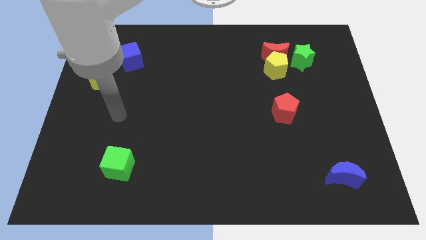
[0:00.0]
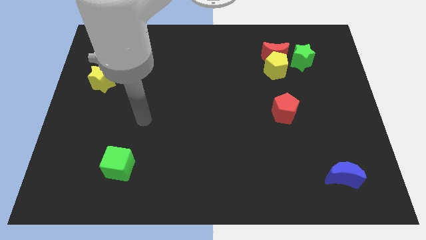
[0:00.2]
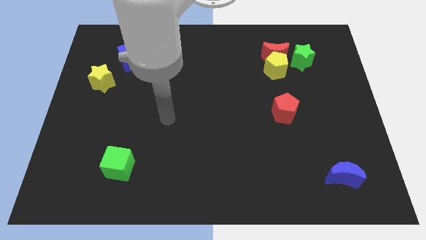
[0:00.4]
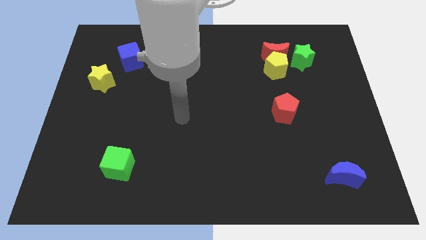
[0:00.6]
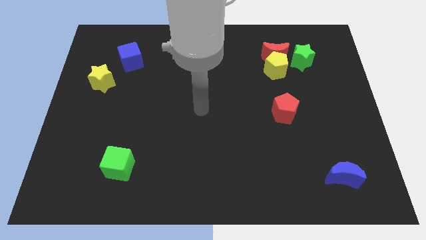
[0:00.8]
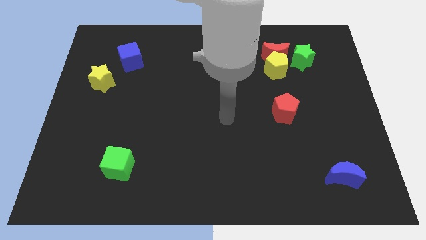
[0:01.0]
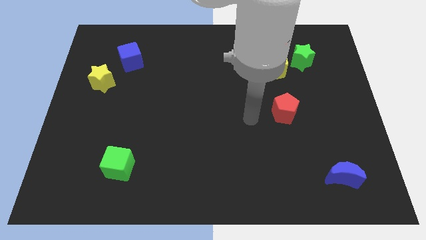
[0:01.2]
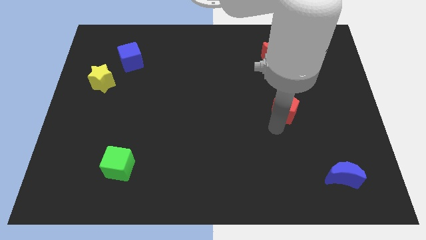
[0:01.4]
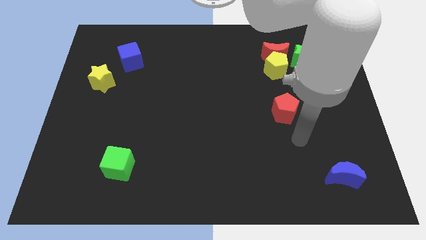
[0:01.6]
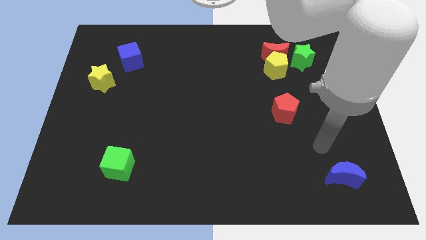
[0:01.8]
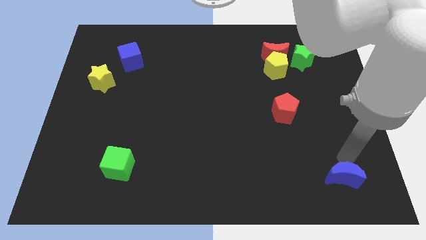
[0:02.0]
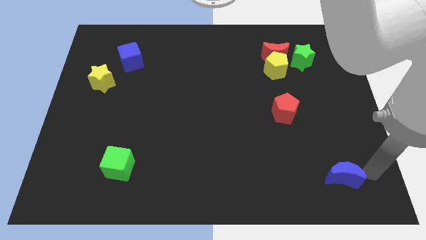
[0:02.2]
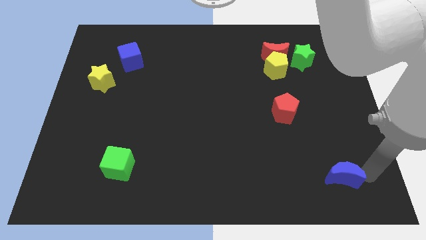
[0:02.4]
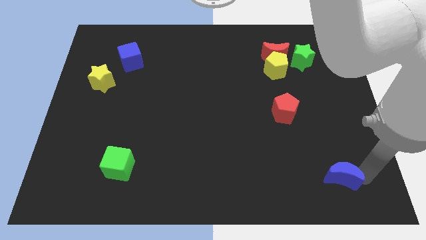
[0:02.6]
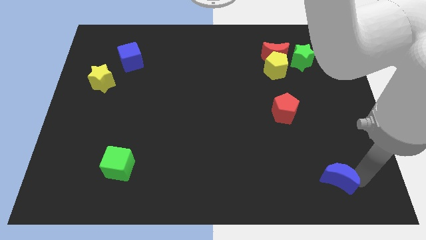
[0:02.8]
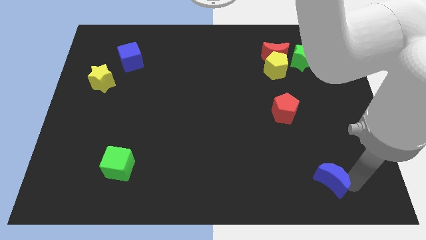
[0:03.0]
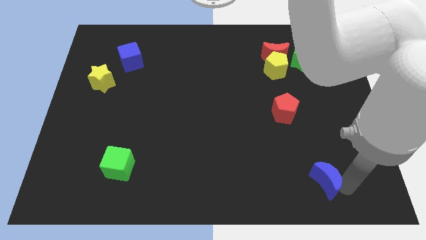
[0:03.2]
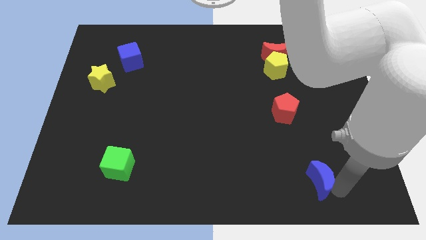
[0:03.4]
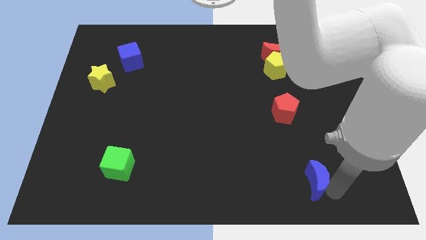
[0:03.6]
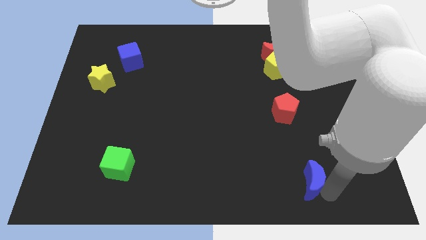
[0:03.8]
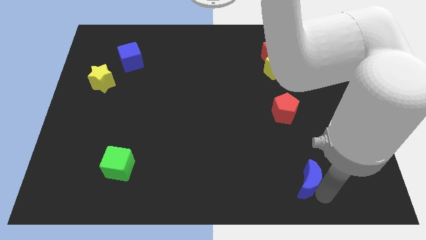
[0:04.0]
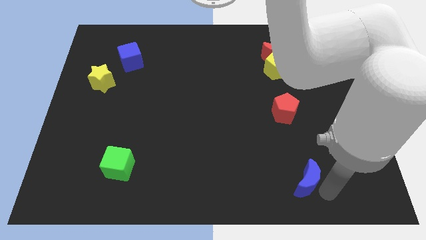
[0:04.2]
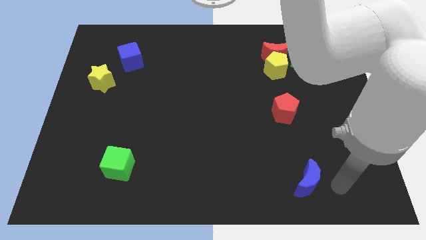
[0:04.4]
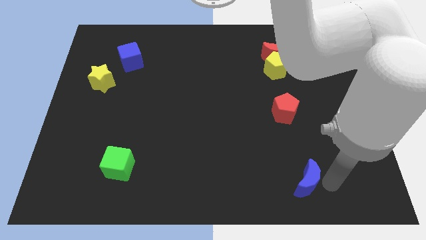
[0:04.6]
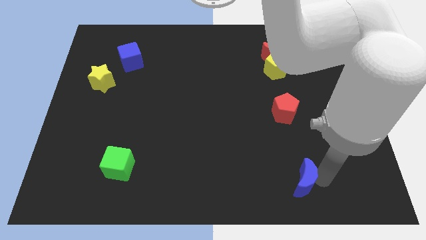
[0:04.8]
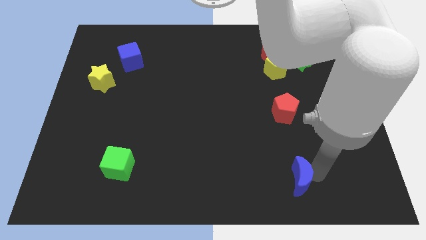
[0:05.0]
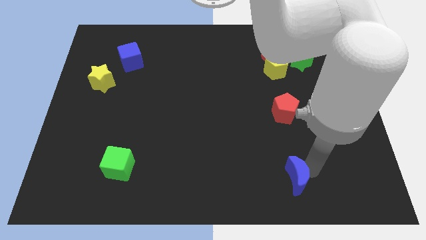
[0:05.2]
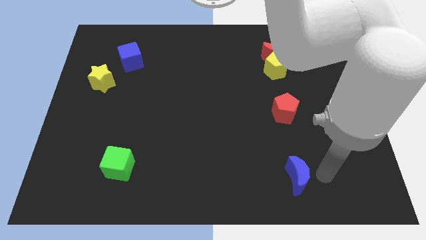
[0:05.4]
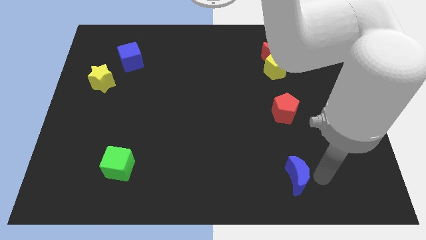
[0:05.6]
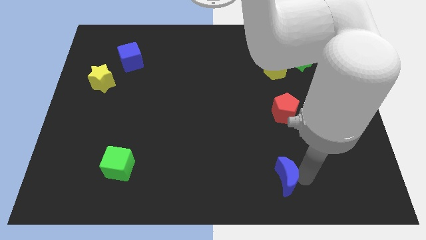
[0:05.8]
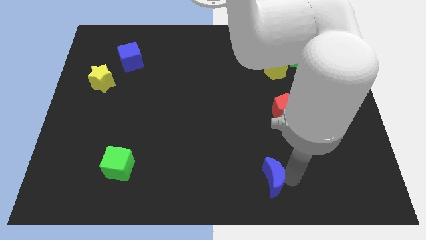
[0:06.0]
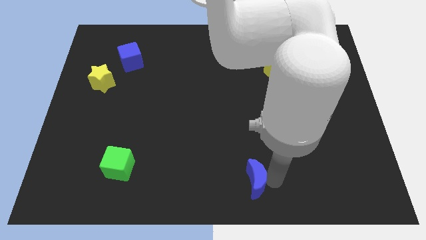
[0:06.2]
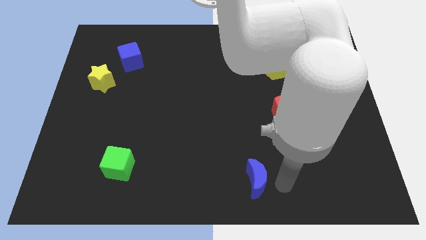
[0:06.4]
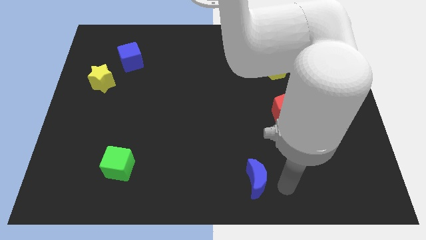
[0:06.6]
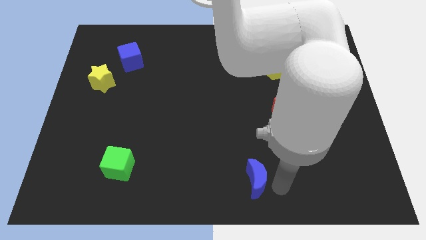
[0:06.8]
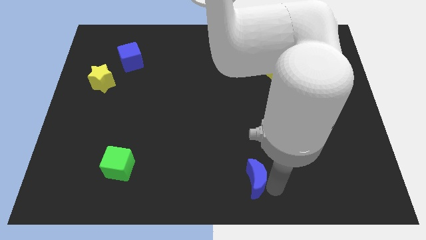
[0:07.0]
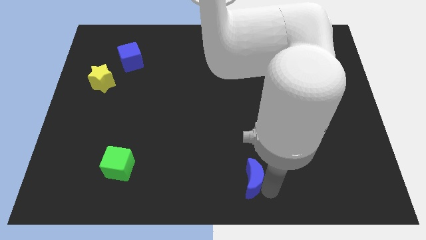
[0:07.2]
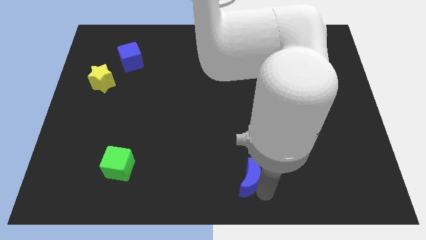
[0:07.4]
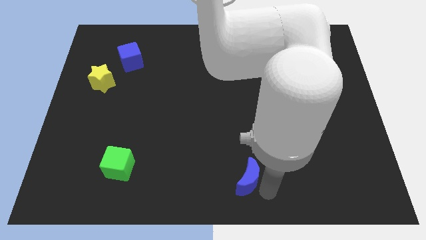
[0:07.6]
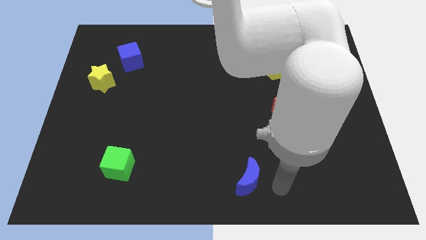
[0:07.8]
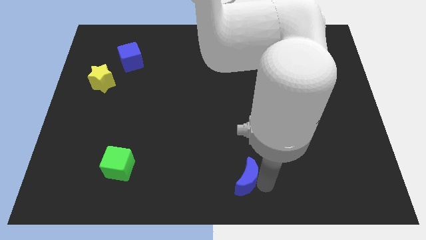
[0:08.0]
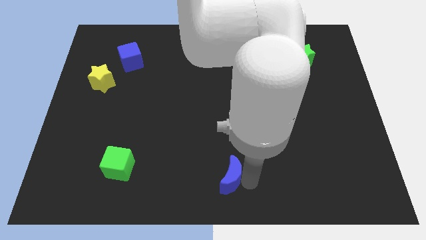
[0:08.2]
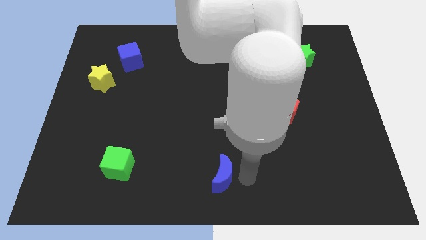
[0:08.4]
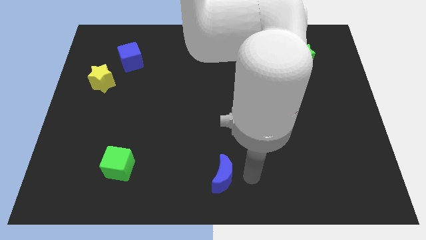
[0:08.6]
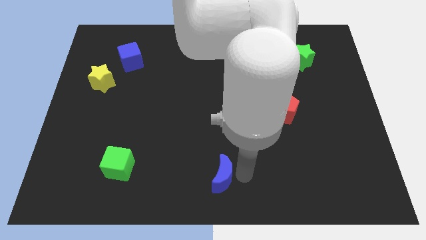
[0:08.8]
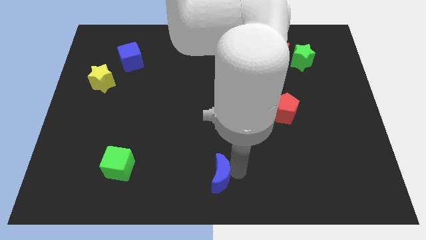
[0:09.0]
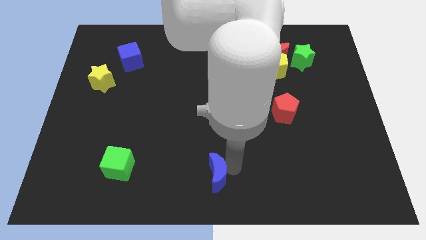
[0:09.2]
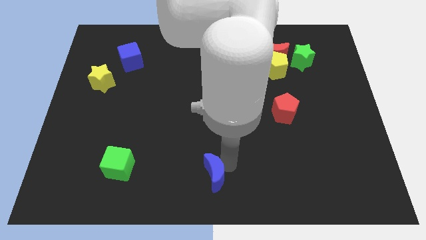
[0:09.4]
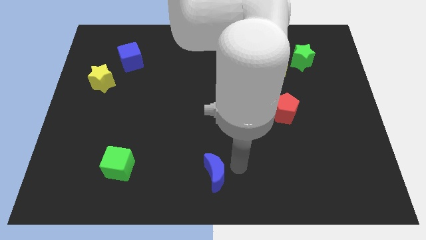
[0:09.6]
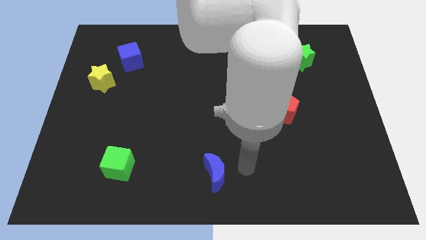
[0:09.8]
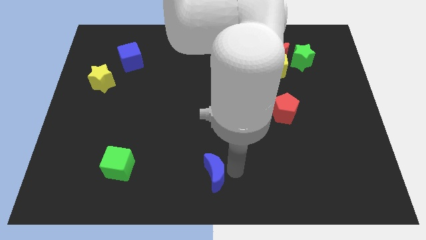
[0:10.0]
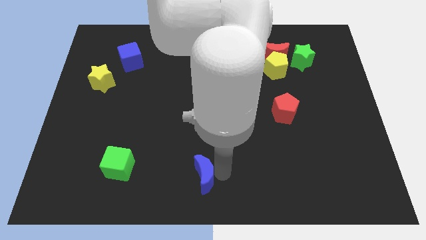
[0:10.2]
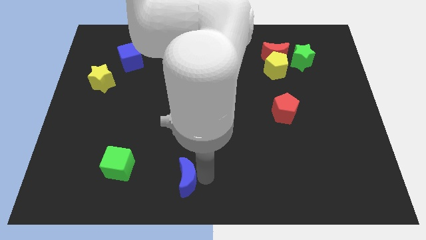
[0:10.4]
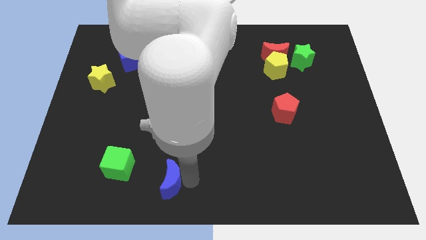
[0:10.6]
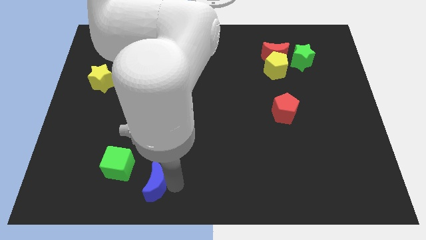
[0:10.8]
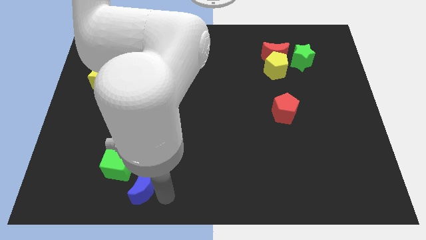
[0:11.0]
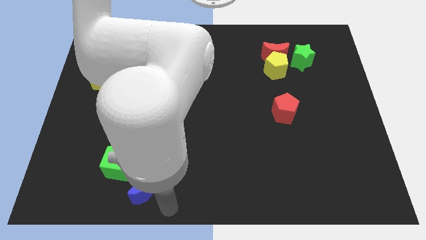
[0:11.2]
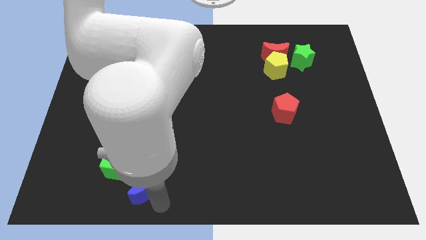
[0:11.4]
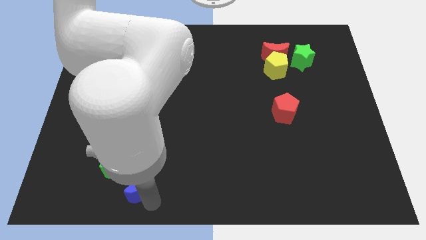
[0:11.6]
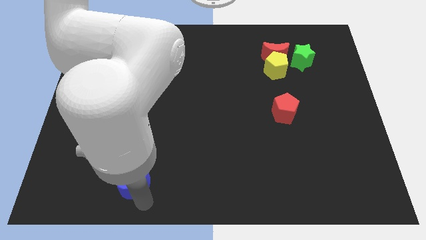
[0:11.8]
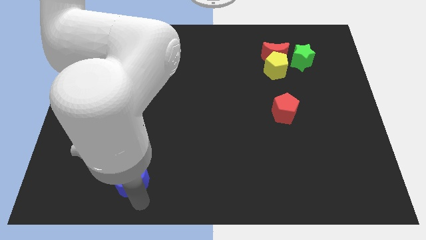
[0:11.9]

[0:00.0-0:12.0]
slide the blue moon towards the green cube

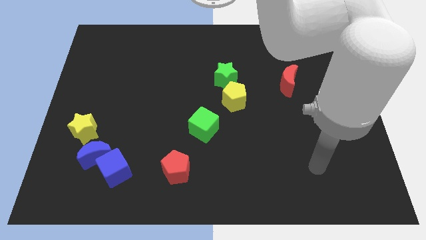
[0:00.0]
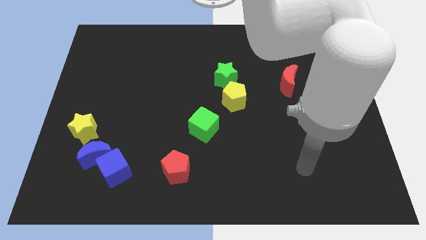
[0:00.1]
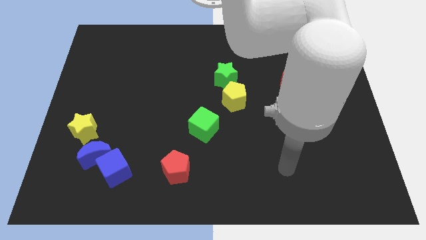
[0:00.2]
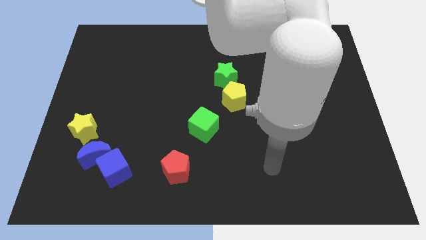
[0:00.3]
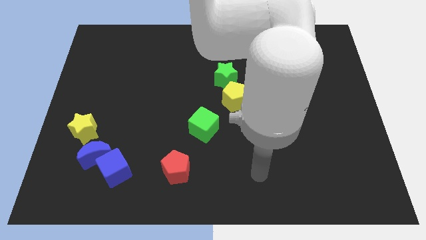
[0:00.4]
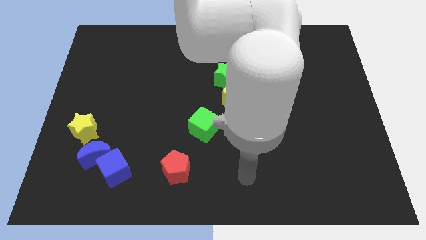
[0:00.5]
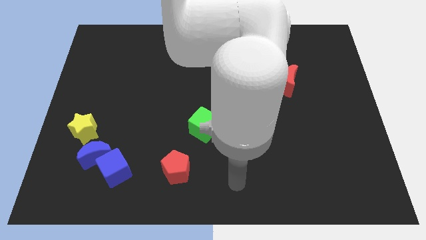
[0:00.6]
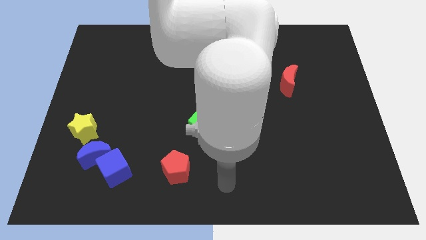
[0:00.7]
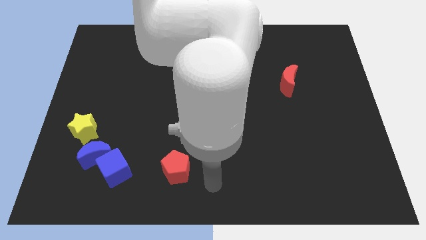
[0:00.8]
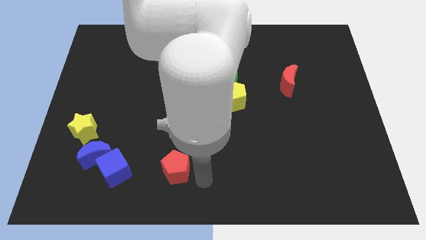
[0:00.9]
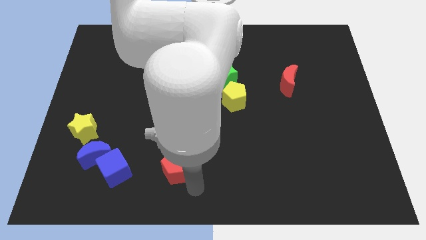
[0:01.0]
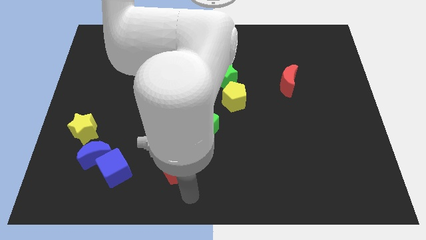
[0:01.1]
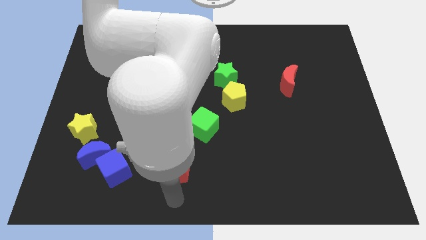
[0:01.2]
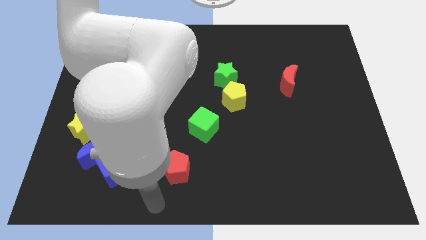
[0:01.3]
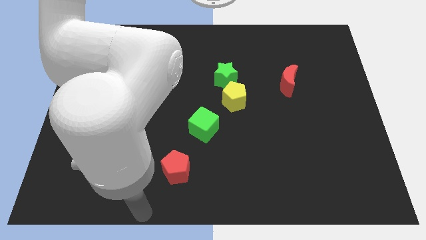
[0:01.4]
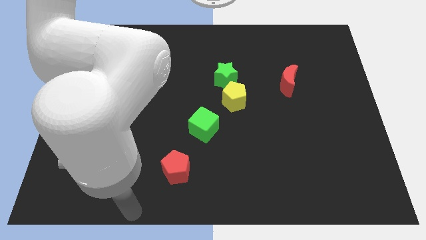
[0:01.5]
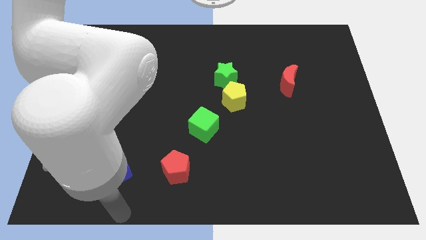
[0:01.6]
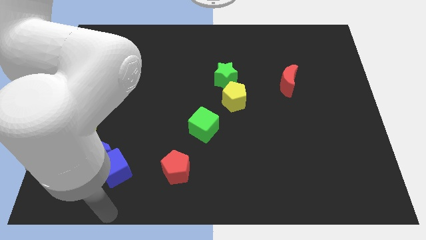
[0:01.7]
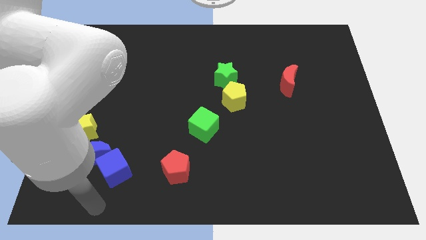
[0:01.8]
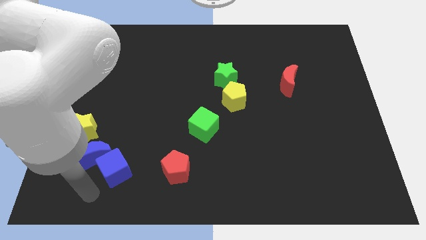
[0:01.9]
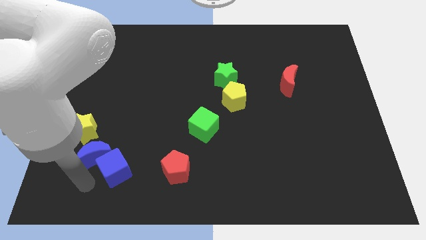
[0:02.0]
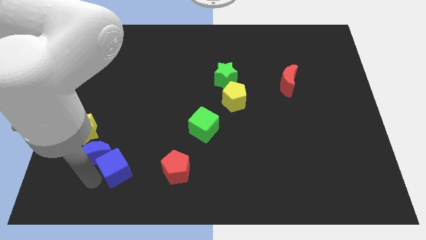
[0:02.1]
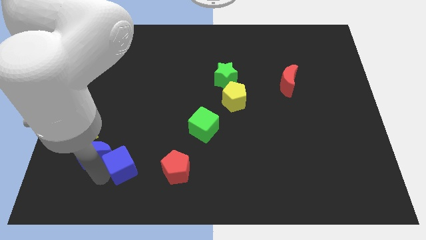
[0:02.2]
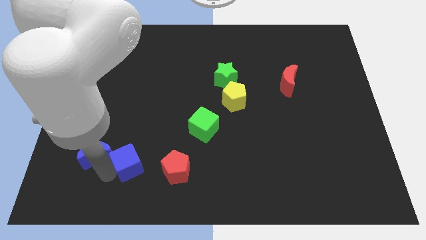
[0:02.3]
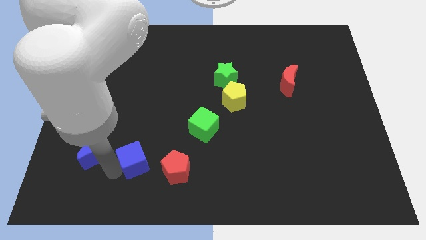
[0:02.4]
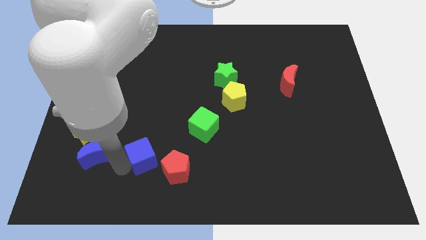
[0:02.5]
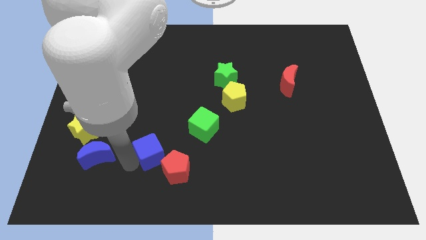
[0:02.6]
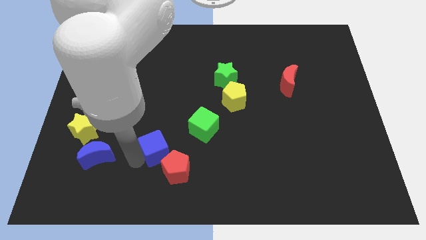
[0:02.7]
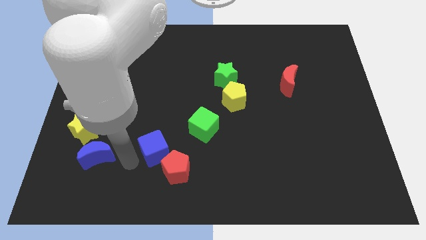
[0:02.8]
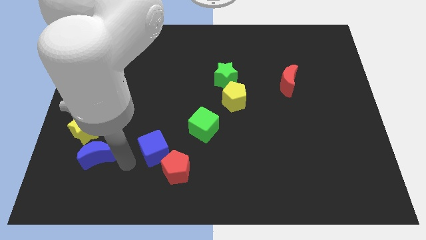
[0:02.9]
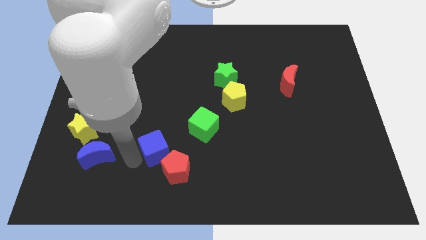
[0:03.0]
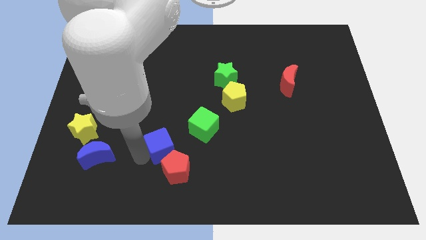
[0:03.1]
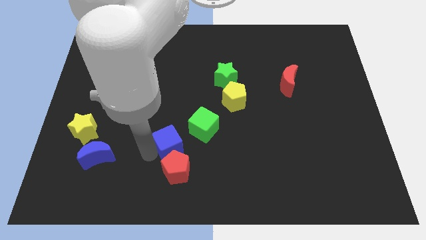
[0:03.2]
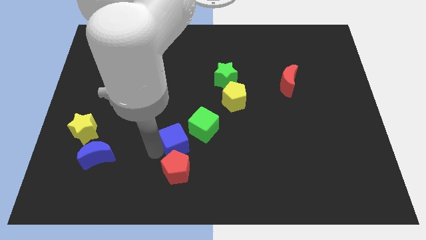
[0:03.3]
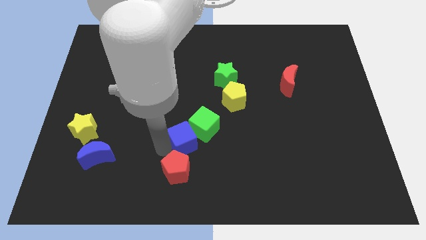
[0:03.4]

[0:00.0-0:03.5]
push the blue cube to the green cube
